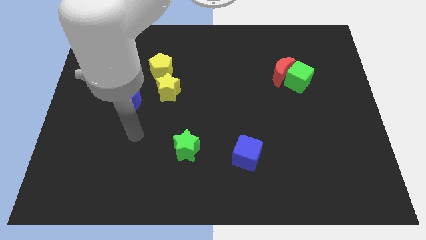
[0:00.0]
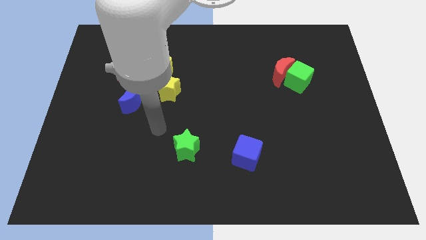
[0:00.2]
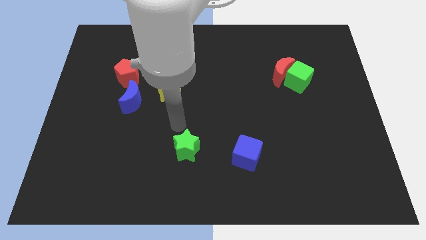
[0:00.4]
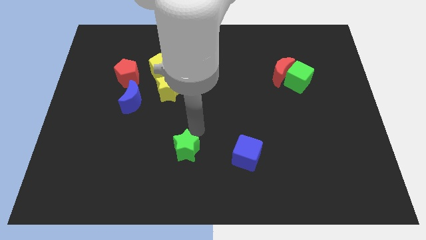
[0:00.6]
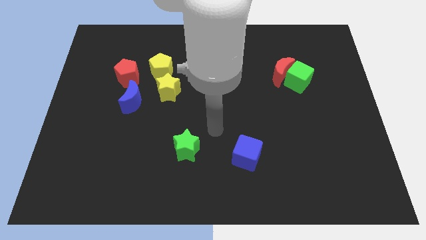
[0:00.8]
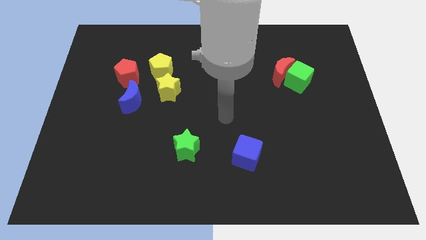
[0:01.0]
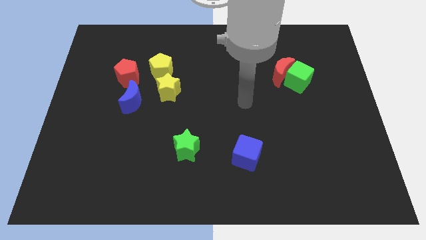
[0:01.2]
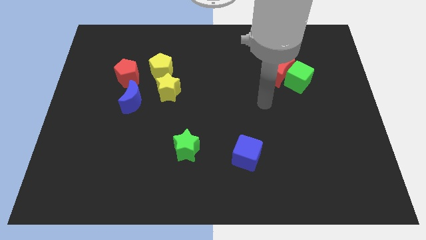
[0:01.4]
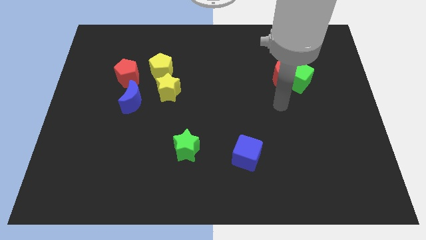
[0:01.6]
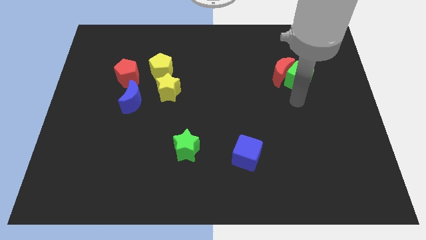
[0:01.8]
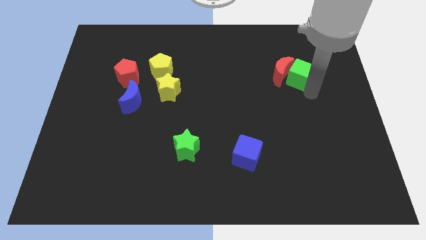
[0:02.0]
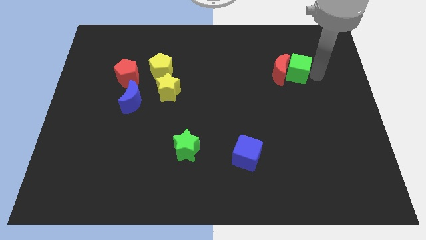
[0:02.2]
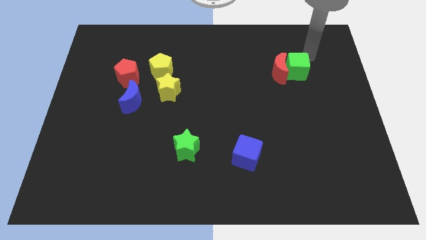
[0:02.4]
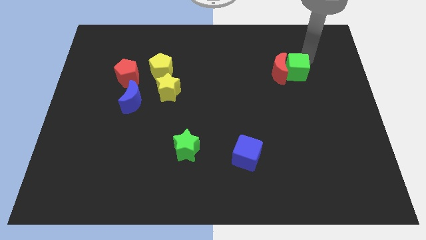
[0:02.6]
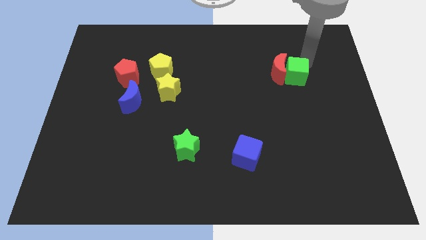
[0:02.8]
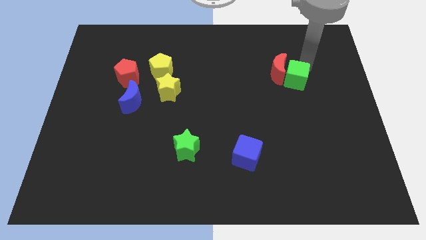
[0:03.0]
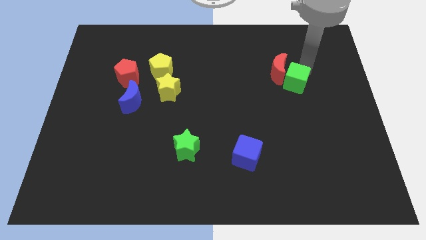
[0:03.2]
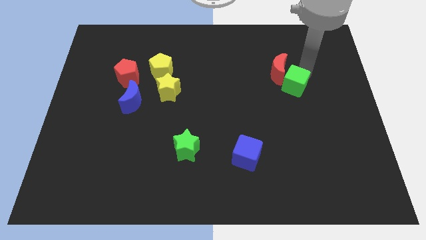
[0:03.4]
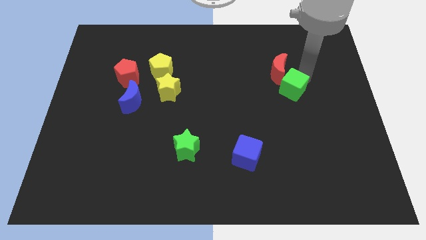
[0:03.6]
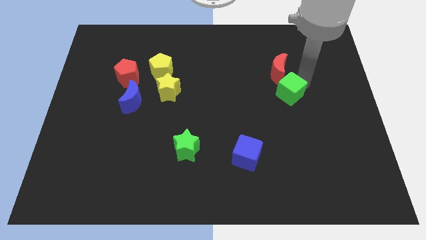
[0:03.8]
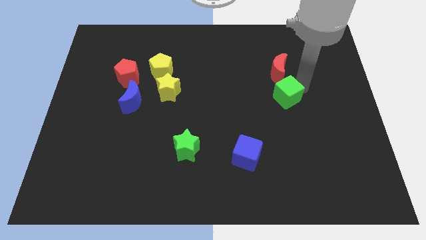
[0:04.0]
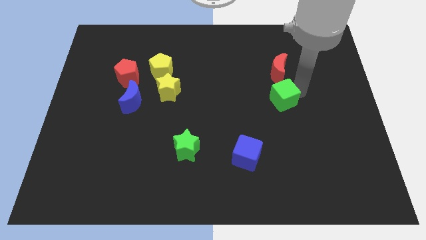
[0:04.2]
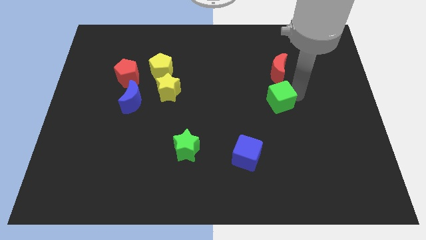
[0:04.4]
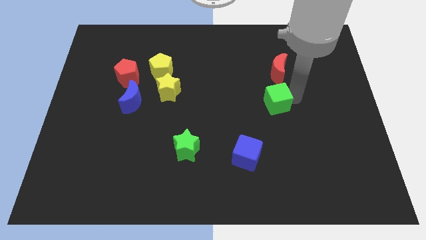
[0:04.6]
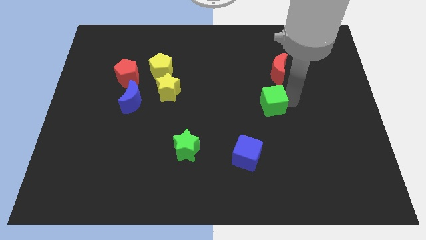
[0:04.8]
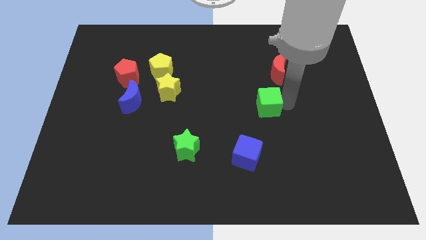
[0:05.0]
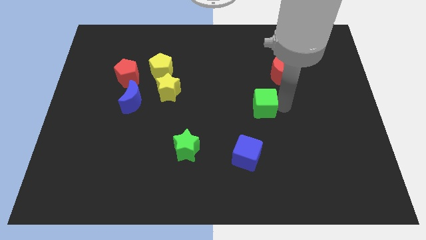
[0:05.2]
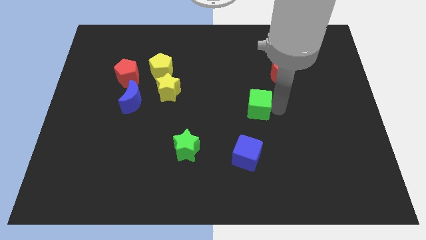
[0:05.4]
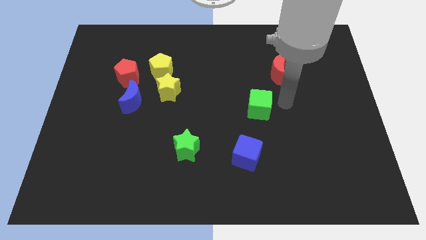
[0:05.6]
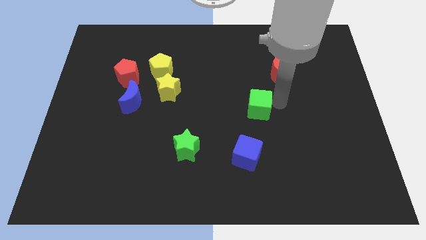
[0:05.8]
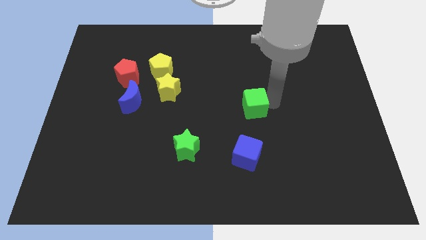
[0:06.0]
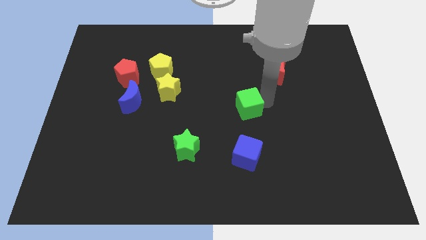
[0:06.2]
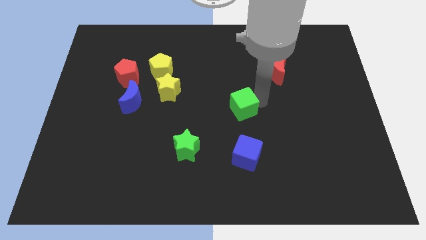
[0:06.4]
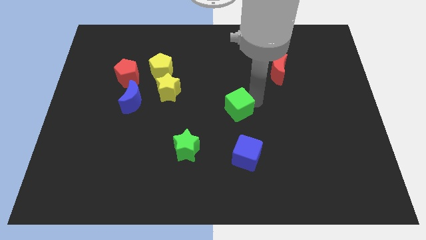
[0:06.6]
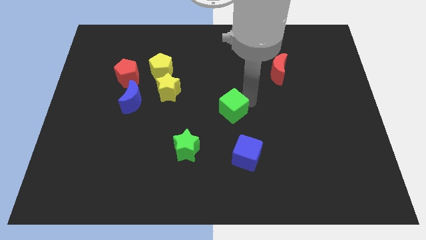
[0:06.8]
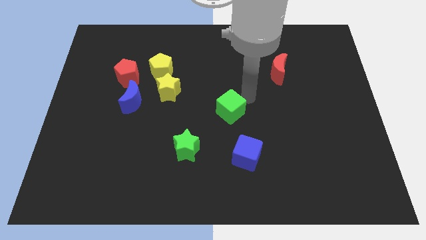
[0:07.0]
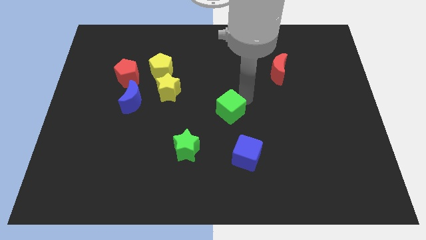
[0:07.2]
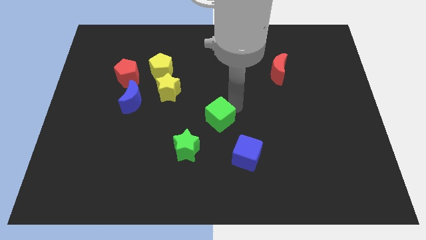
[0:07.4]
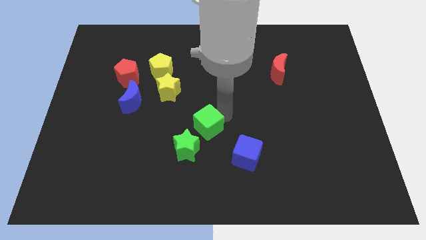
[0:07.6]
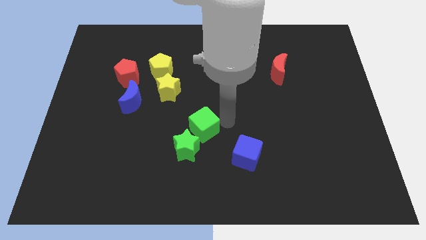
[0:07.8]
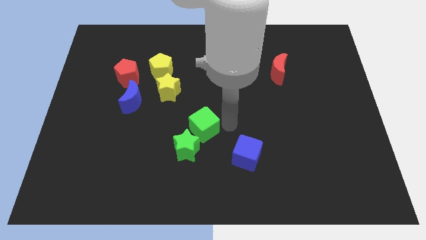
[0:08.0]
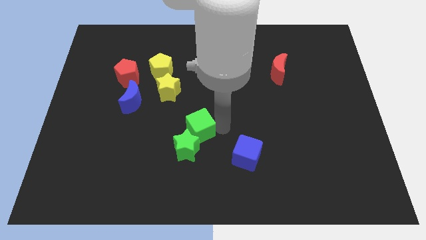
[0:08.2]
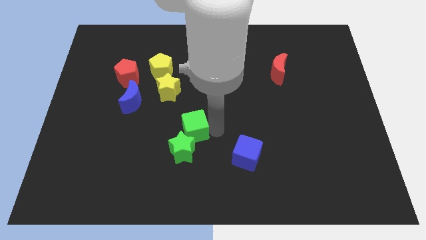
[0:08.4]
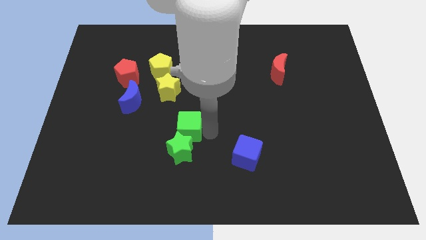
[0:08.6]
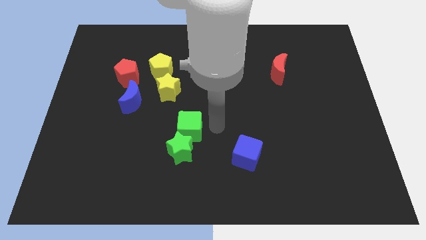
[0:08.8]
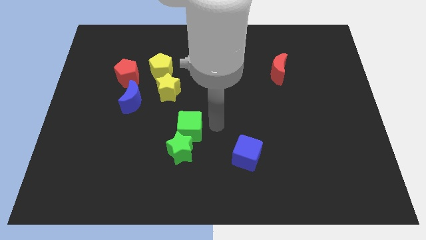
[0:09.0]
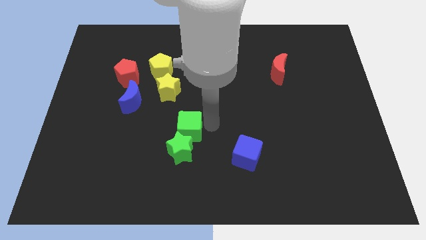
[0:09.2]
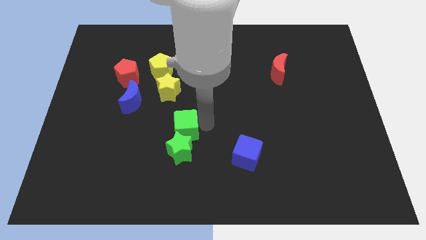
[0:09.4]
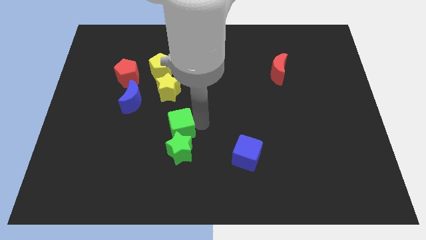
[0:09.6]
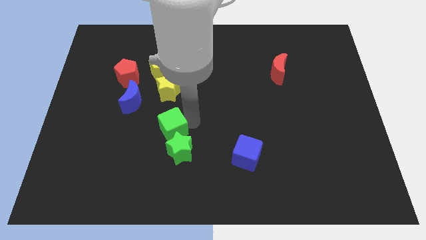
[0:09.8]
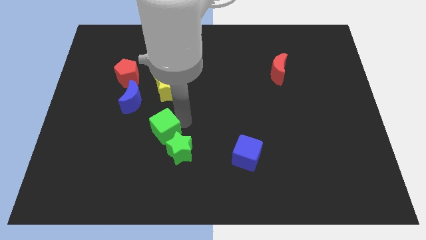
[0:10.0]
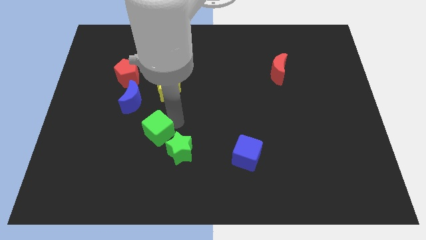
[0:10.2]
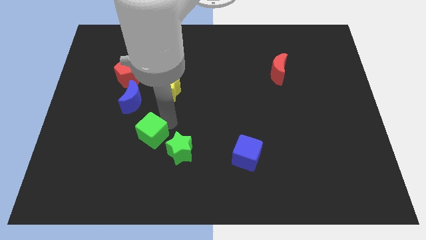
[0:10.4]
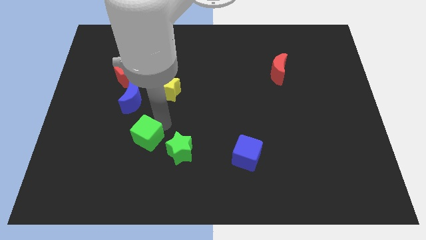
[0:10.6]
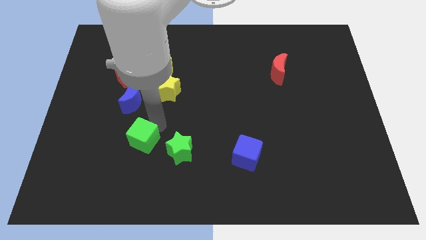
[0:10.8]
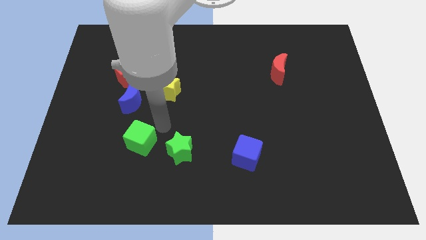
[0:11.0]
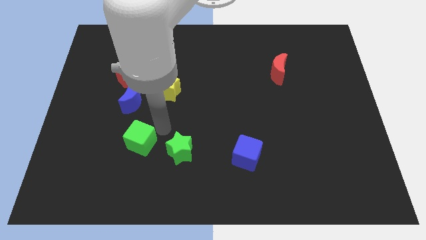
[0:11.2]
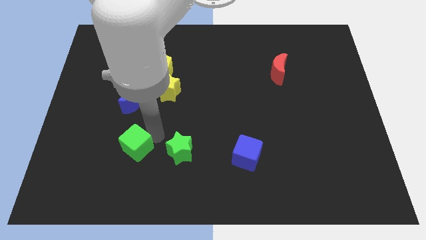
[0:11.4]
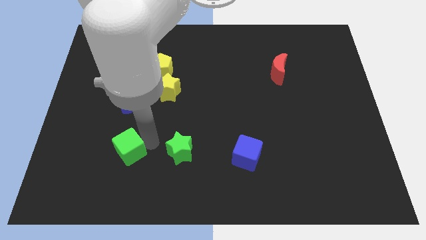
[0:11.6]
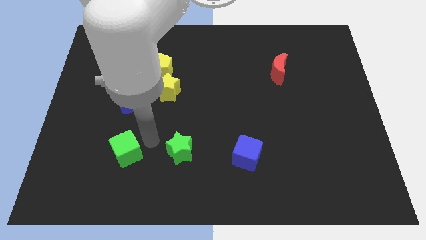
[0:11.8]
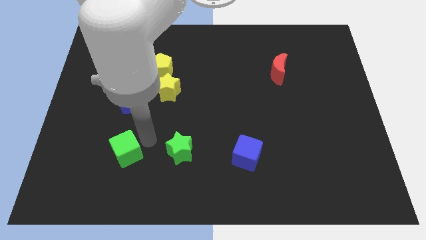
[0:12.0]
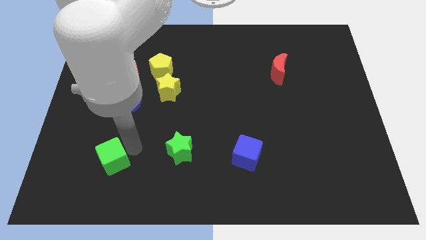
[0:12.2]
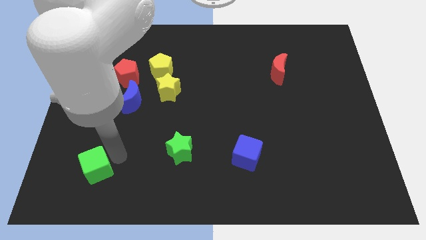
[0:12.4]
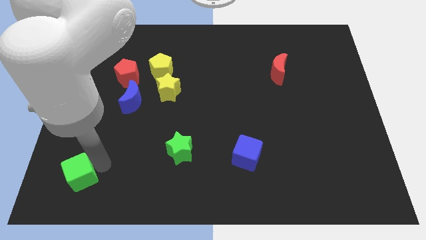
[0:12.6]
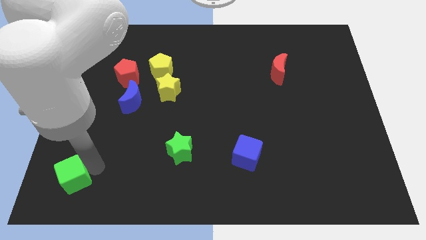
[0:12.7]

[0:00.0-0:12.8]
put the green cube to the lower left corner

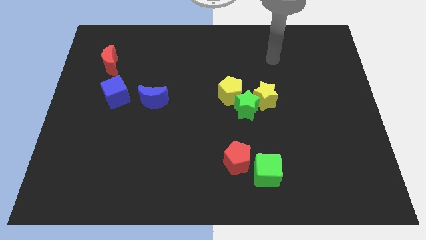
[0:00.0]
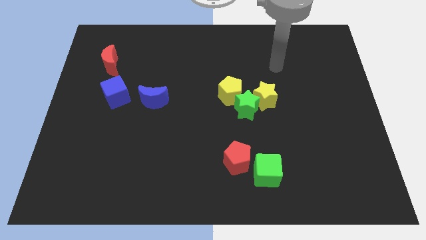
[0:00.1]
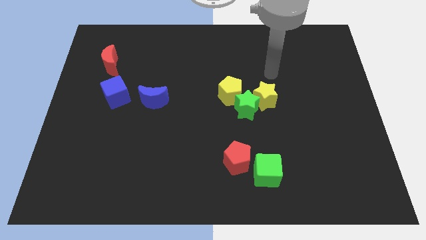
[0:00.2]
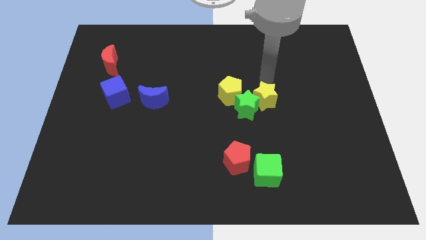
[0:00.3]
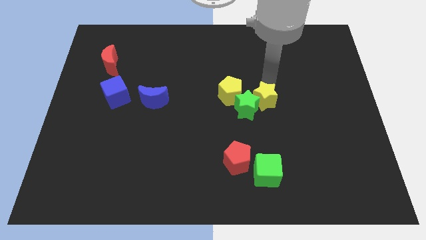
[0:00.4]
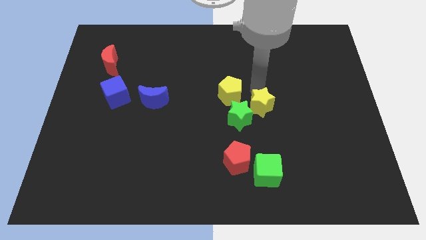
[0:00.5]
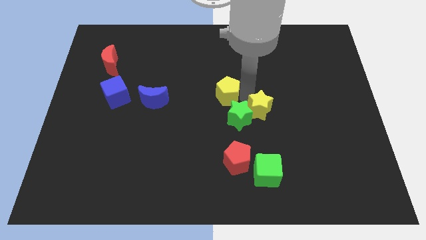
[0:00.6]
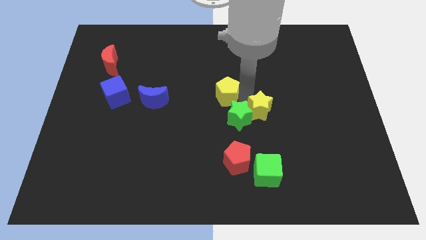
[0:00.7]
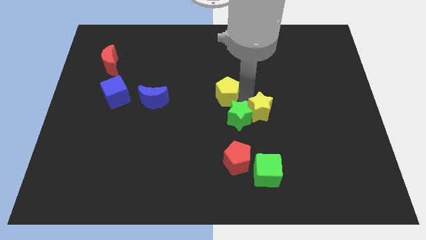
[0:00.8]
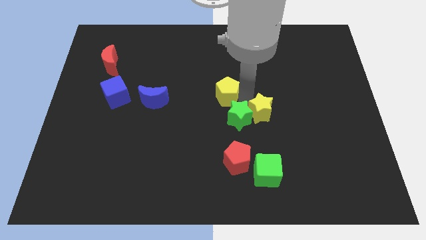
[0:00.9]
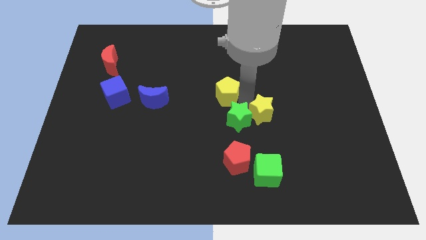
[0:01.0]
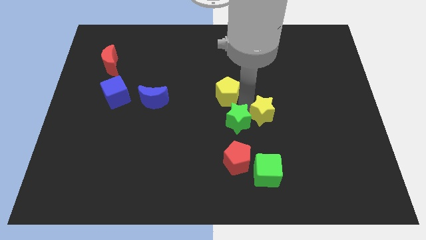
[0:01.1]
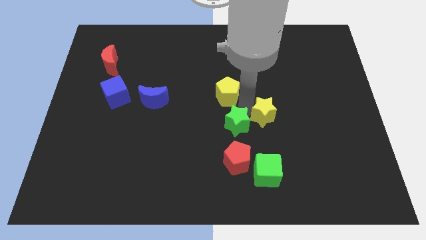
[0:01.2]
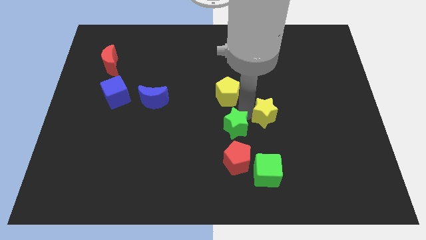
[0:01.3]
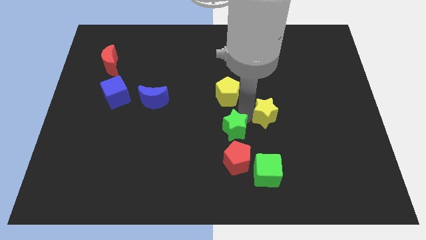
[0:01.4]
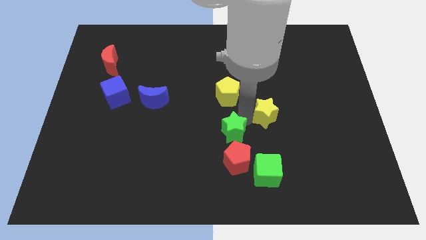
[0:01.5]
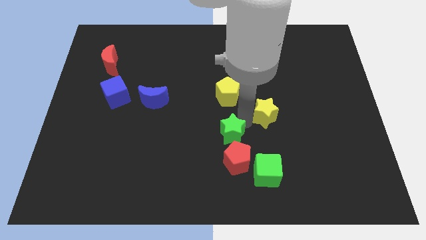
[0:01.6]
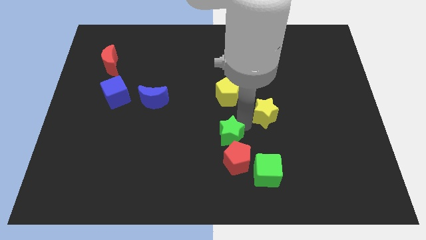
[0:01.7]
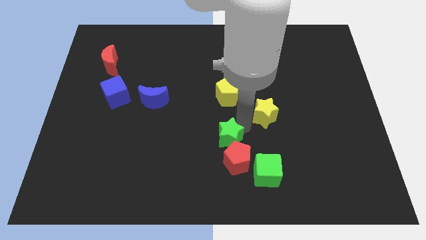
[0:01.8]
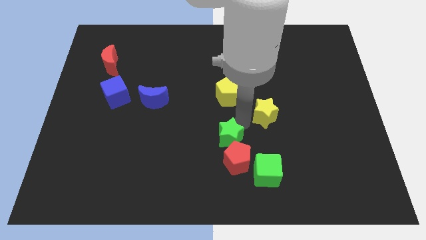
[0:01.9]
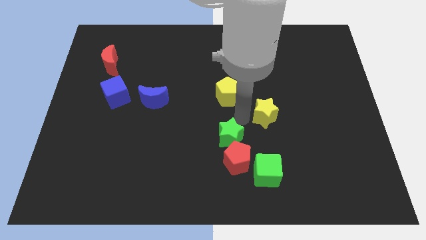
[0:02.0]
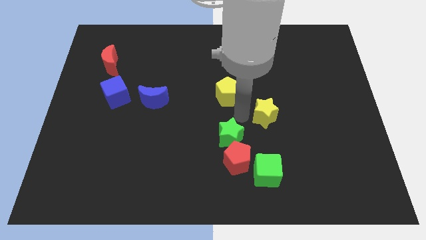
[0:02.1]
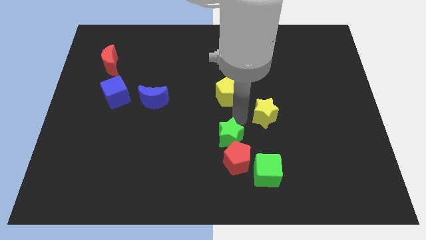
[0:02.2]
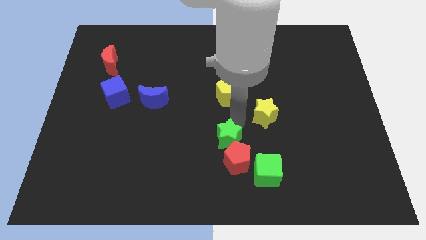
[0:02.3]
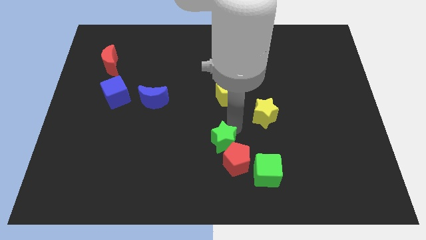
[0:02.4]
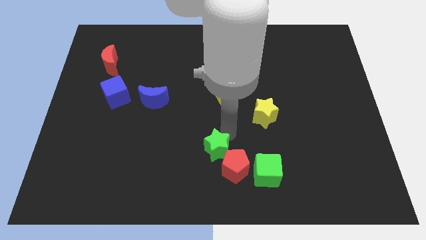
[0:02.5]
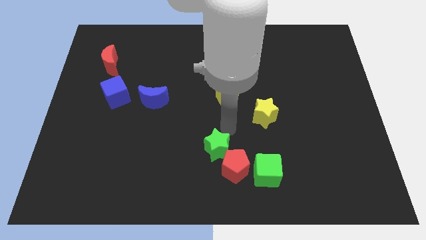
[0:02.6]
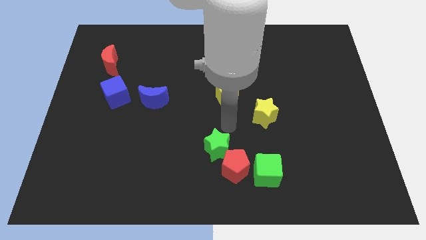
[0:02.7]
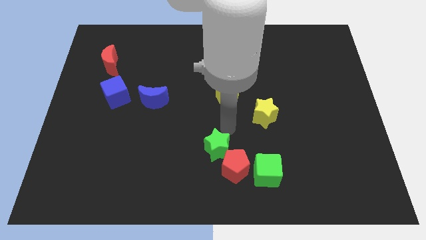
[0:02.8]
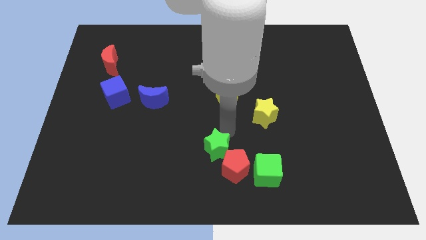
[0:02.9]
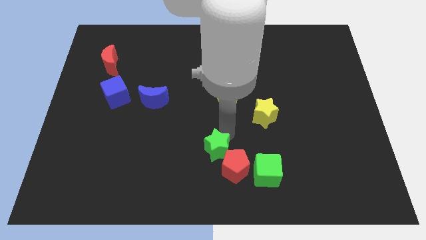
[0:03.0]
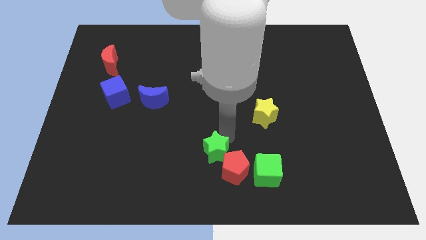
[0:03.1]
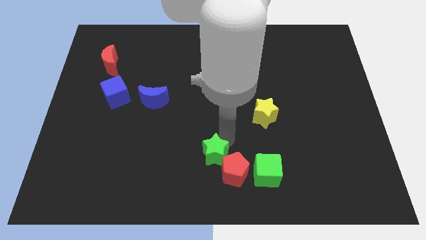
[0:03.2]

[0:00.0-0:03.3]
slide the green star to the bottom side
